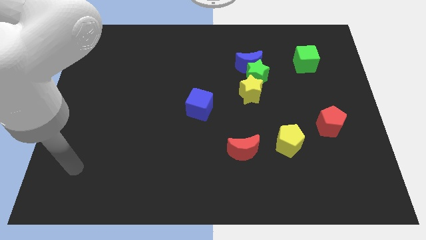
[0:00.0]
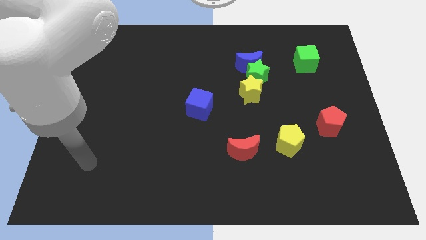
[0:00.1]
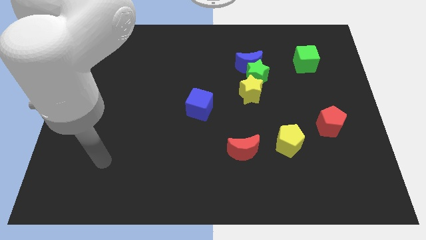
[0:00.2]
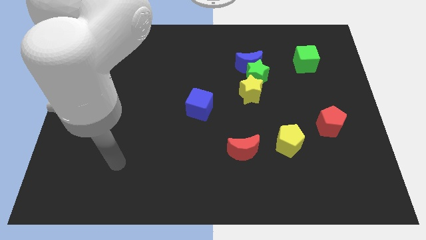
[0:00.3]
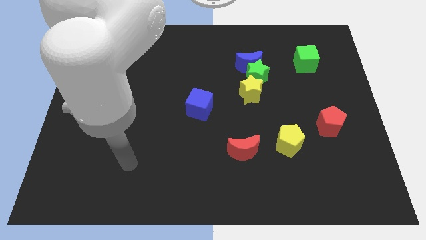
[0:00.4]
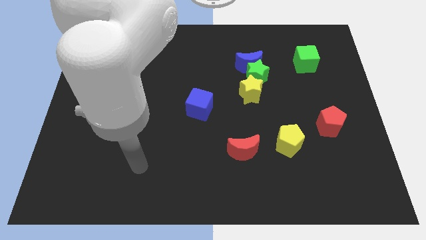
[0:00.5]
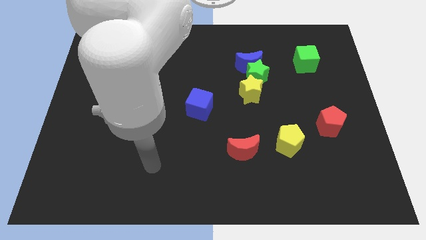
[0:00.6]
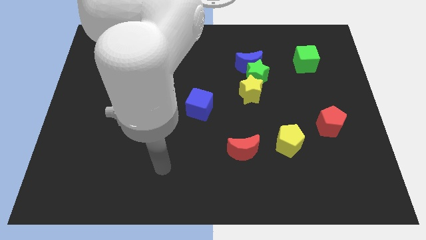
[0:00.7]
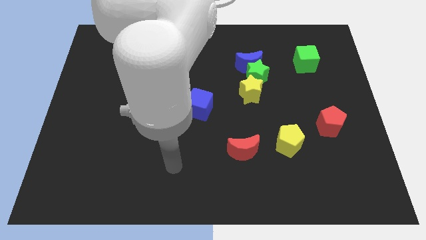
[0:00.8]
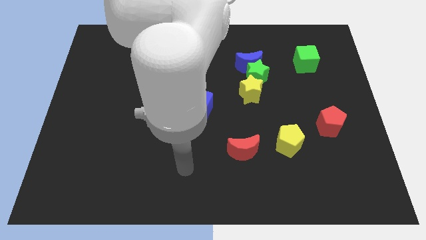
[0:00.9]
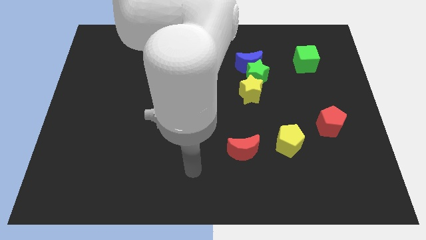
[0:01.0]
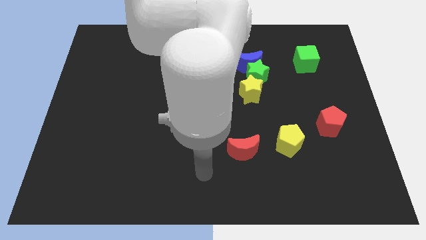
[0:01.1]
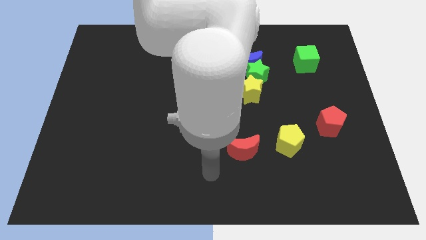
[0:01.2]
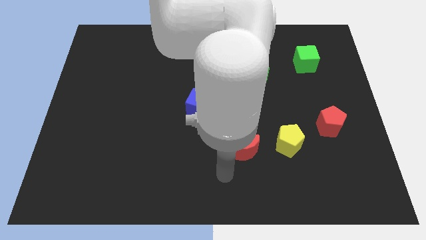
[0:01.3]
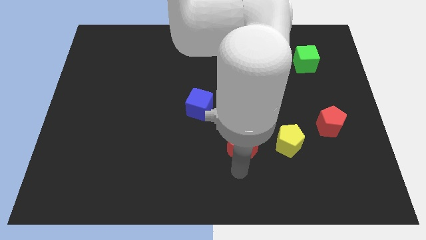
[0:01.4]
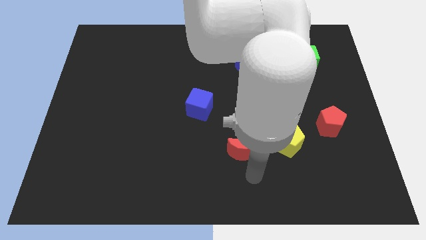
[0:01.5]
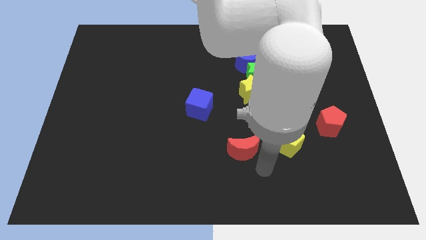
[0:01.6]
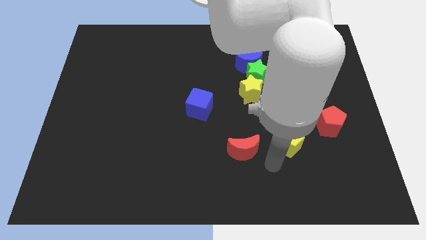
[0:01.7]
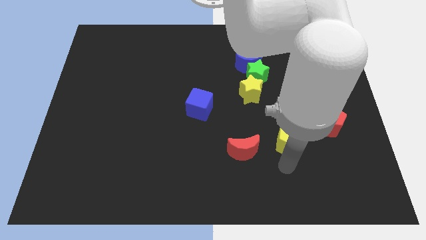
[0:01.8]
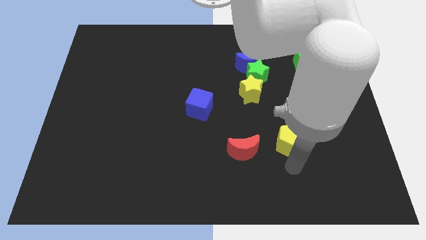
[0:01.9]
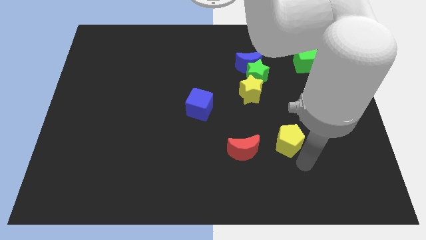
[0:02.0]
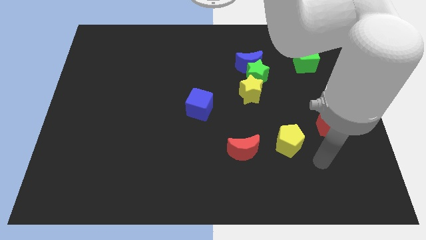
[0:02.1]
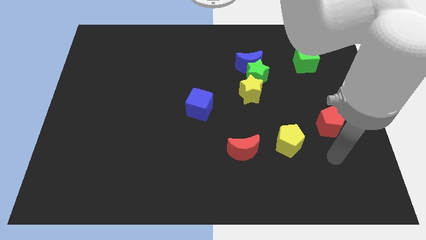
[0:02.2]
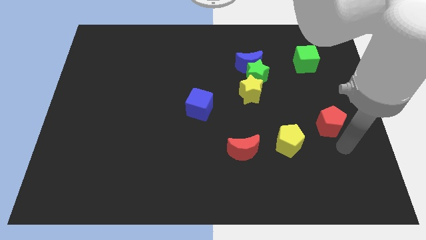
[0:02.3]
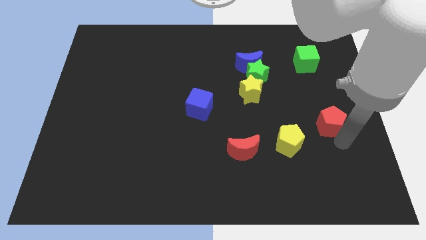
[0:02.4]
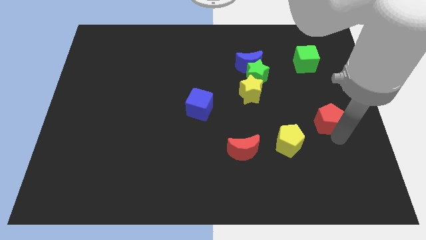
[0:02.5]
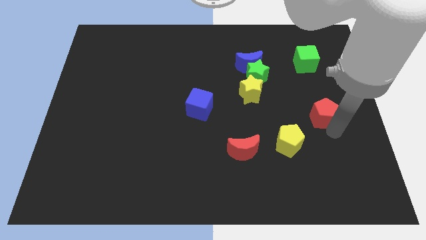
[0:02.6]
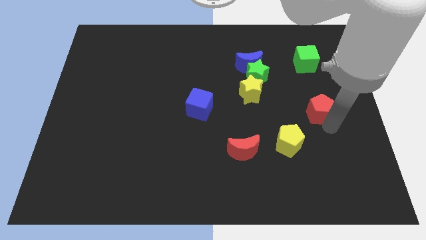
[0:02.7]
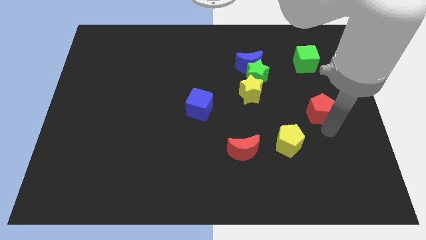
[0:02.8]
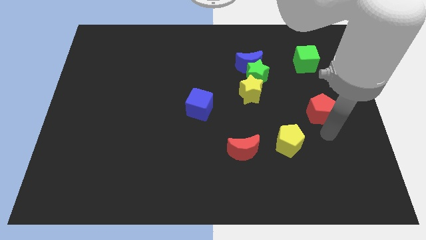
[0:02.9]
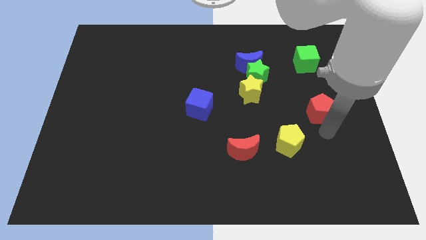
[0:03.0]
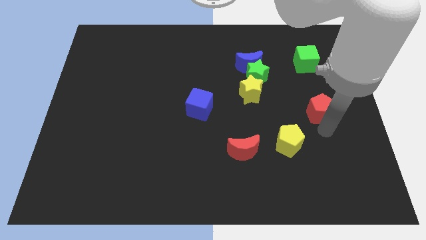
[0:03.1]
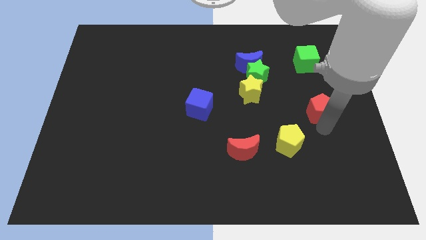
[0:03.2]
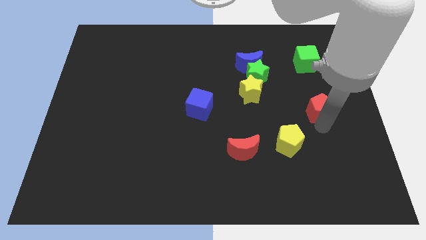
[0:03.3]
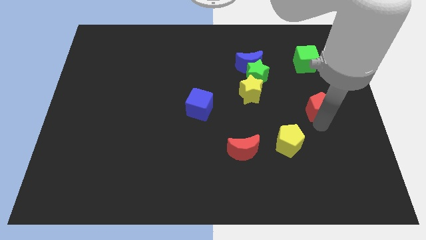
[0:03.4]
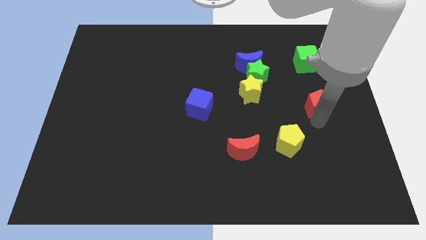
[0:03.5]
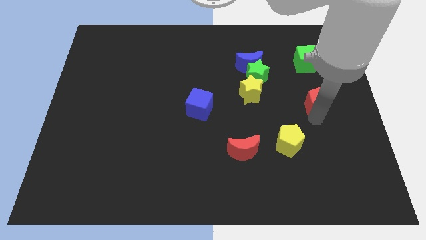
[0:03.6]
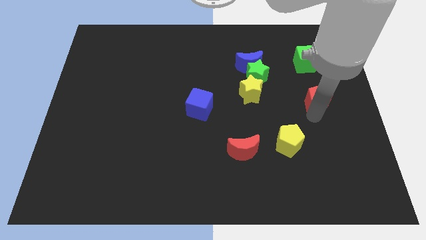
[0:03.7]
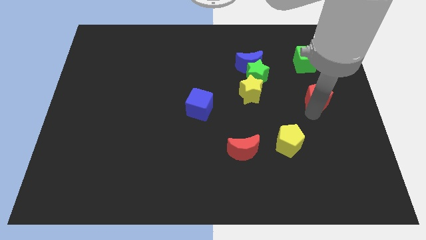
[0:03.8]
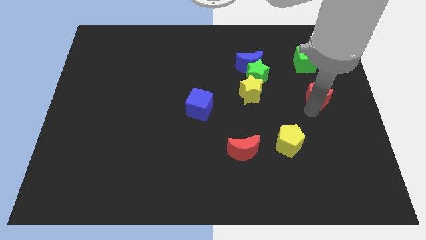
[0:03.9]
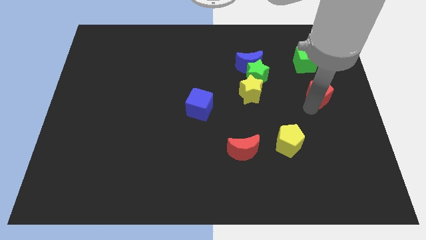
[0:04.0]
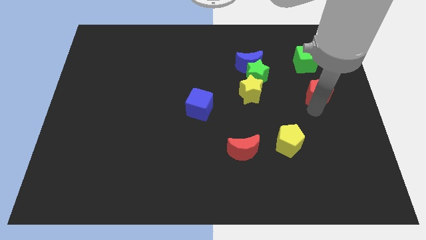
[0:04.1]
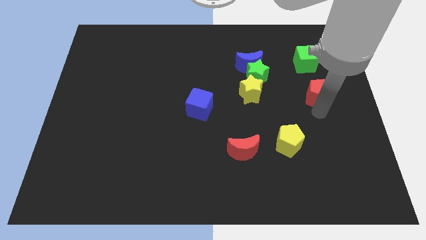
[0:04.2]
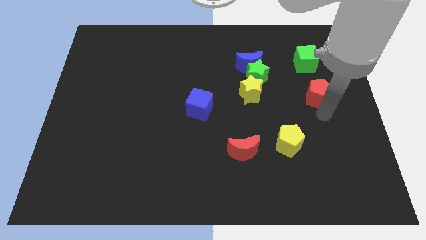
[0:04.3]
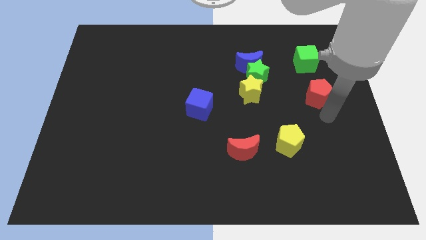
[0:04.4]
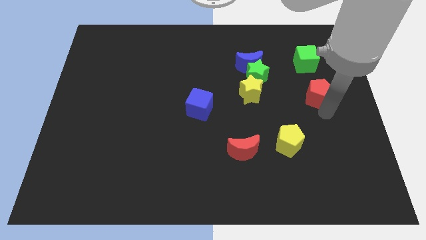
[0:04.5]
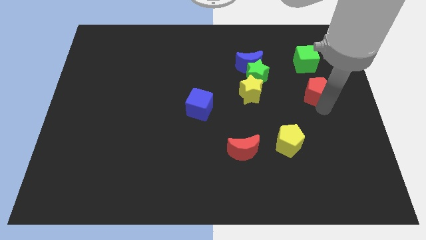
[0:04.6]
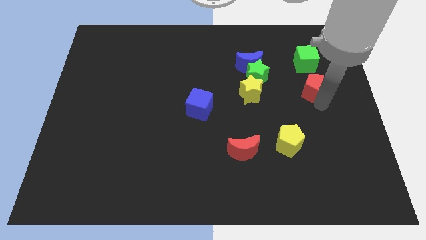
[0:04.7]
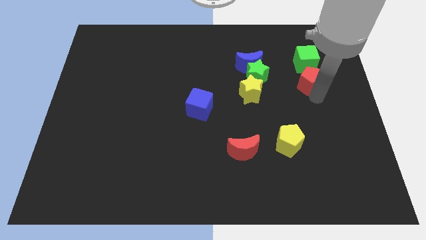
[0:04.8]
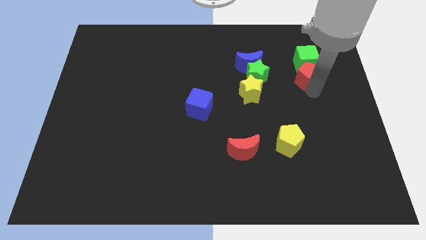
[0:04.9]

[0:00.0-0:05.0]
push the red pentagon next to the green cube

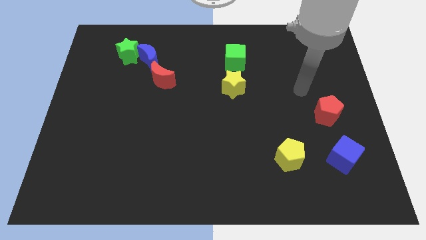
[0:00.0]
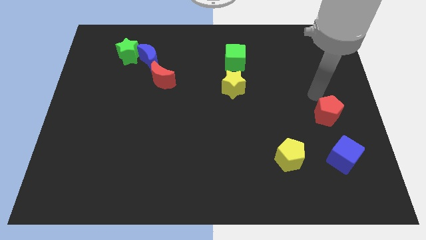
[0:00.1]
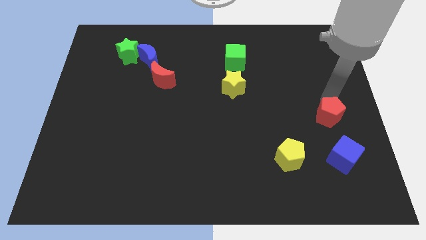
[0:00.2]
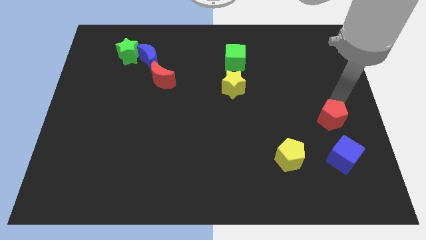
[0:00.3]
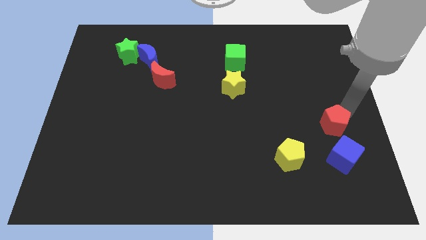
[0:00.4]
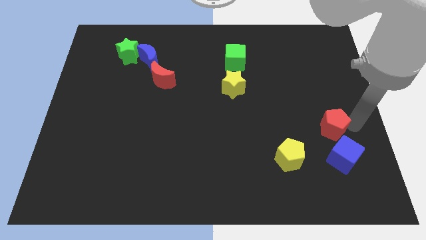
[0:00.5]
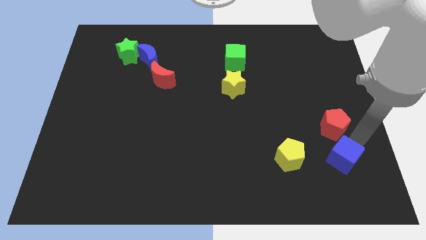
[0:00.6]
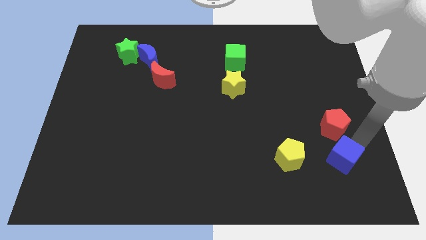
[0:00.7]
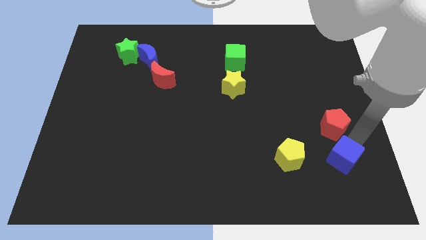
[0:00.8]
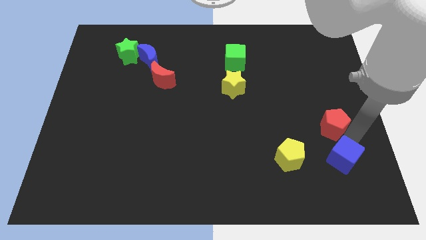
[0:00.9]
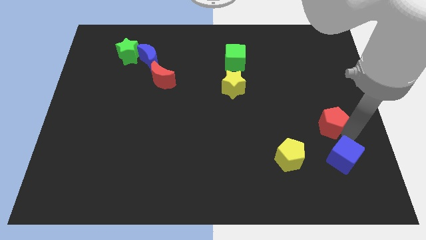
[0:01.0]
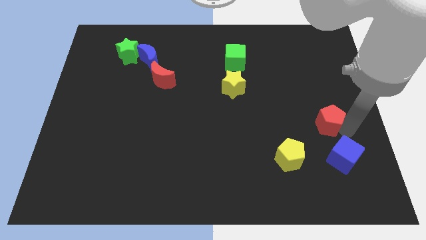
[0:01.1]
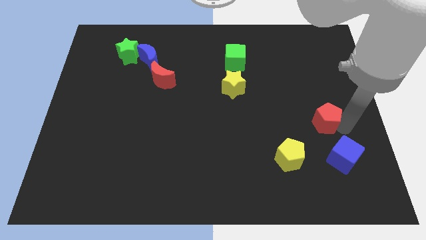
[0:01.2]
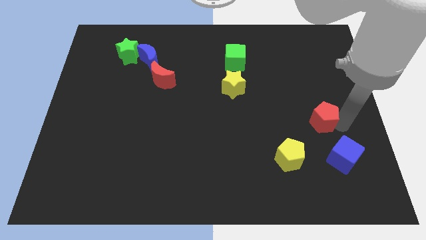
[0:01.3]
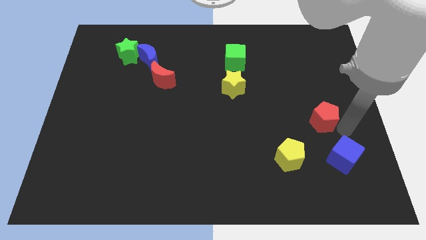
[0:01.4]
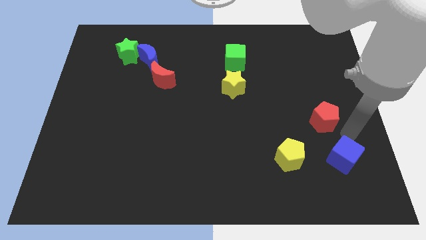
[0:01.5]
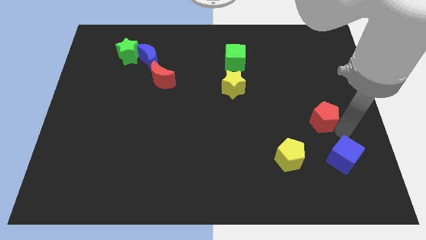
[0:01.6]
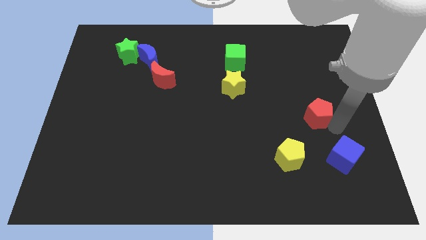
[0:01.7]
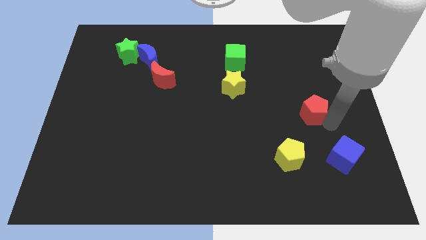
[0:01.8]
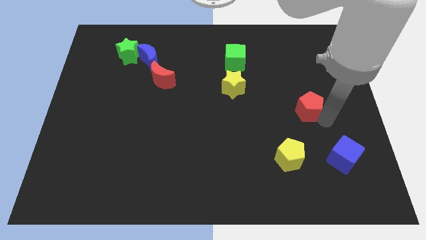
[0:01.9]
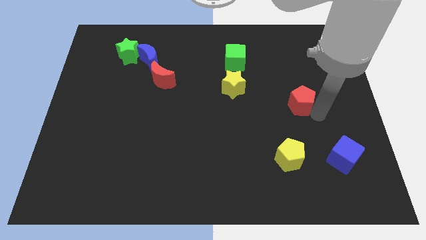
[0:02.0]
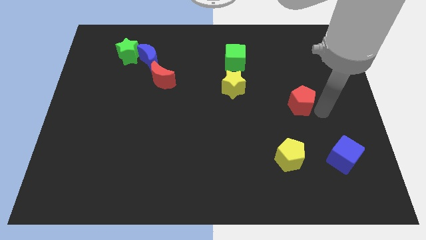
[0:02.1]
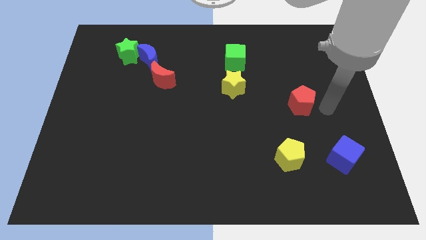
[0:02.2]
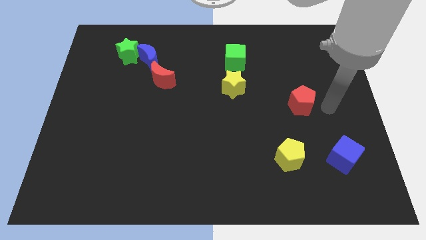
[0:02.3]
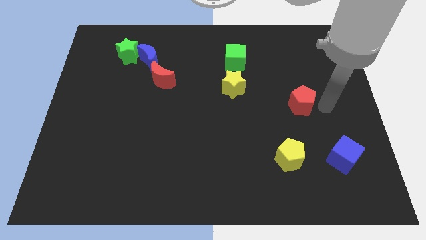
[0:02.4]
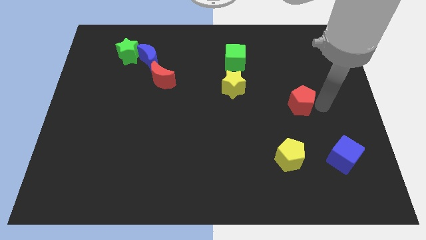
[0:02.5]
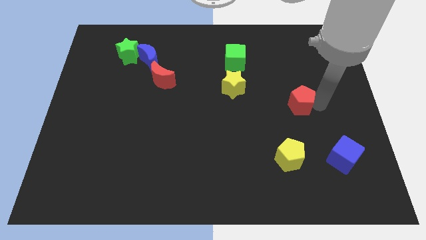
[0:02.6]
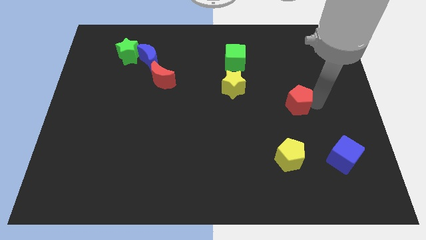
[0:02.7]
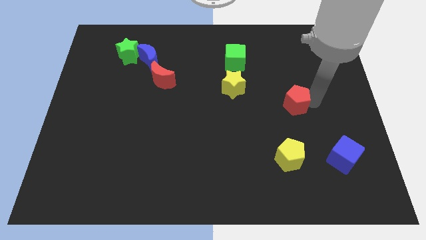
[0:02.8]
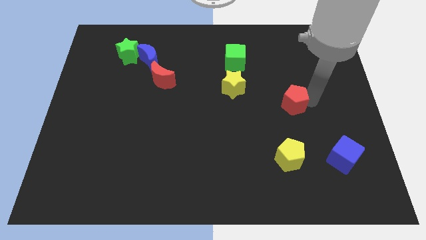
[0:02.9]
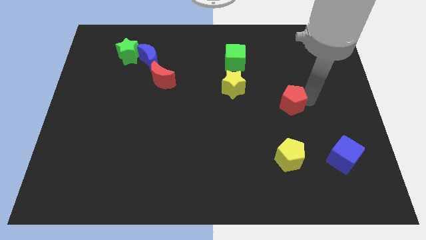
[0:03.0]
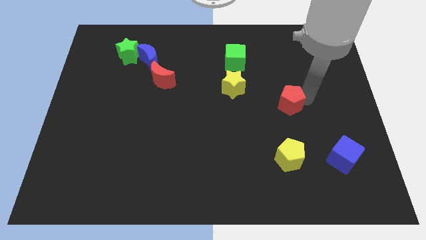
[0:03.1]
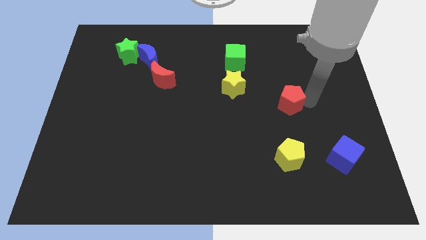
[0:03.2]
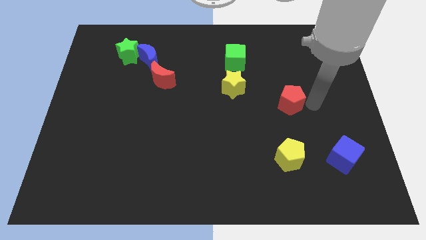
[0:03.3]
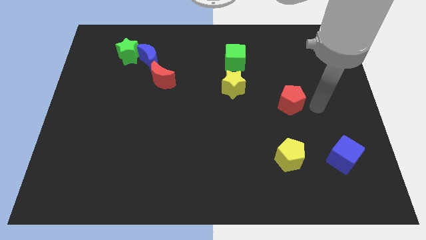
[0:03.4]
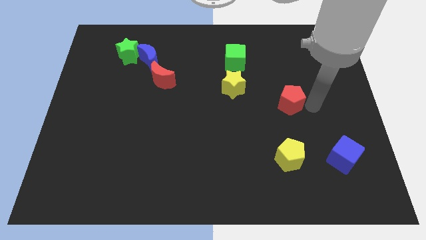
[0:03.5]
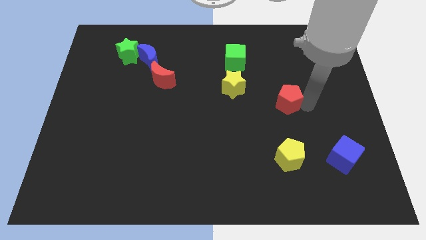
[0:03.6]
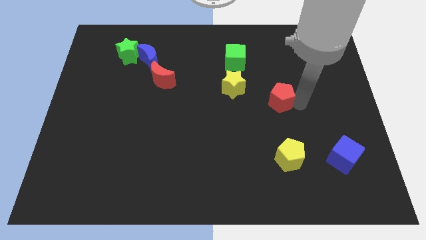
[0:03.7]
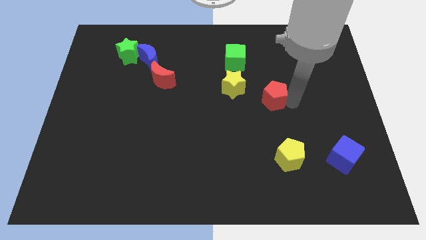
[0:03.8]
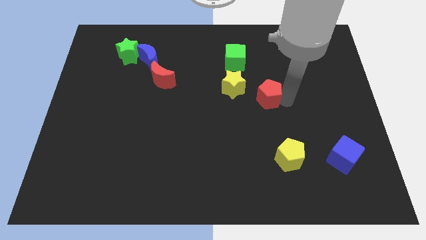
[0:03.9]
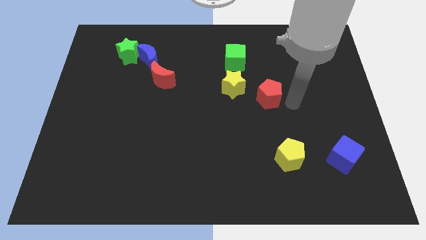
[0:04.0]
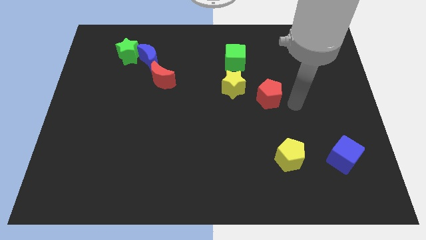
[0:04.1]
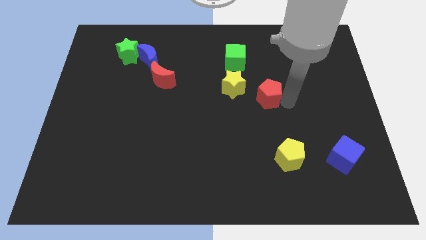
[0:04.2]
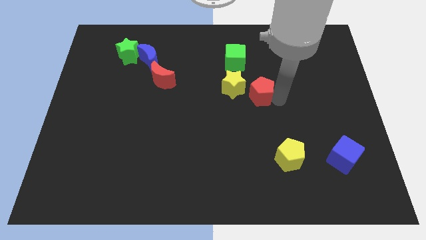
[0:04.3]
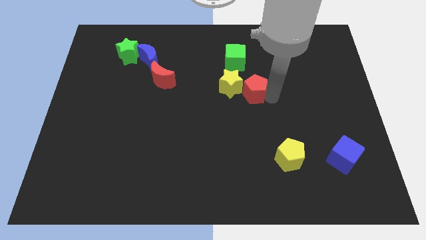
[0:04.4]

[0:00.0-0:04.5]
put the red pentagon close to the yellow star
